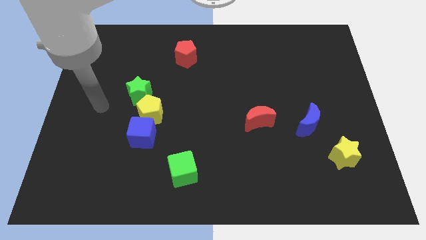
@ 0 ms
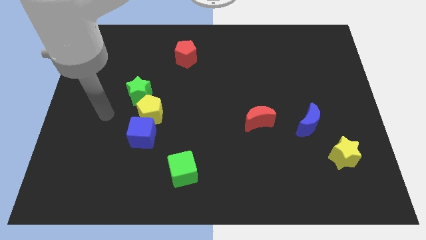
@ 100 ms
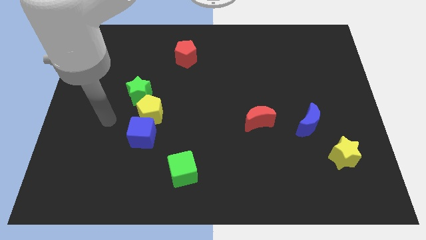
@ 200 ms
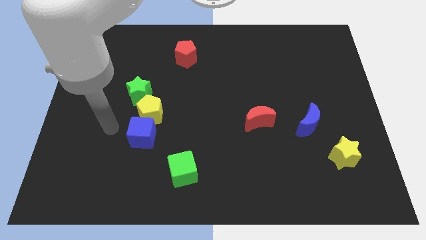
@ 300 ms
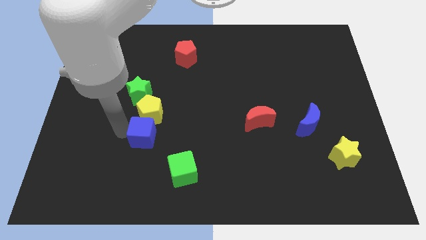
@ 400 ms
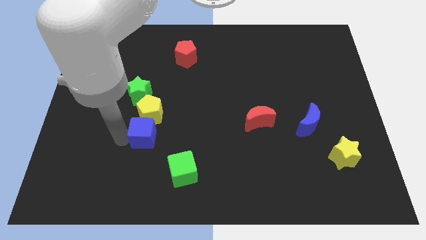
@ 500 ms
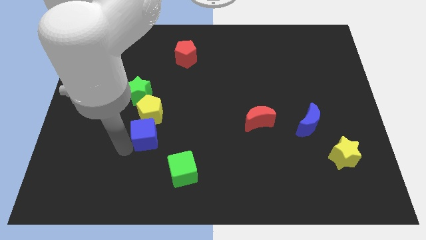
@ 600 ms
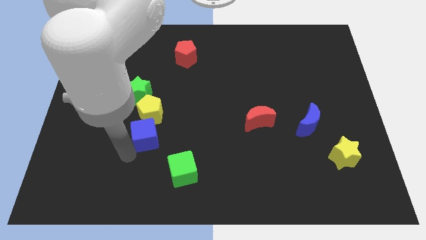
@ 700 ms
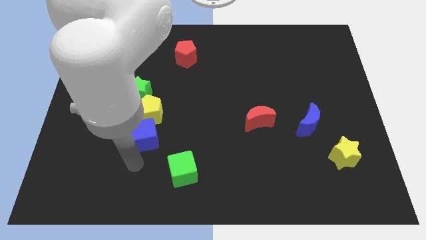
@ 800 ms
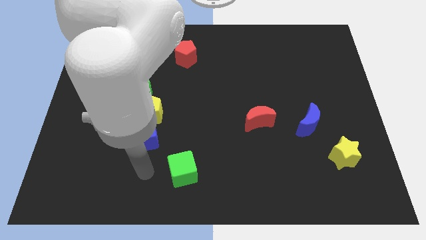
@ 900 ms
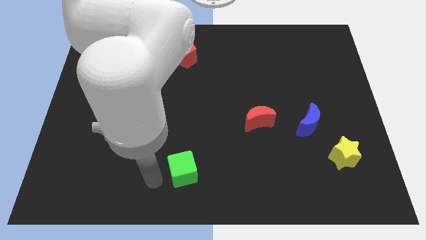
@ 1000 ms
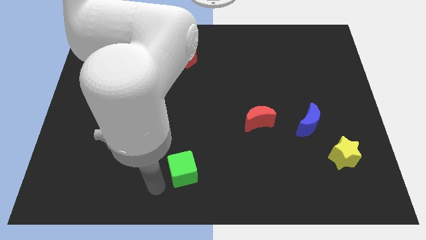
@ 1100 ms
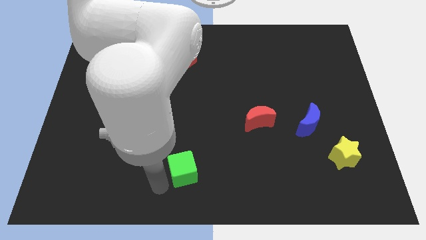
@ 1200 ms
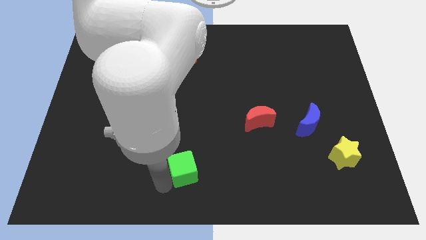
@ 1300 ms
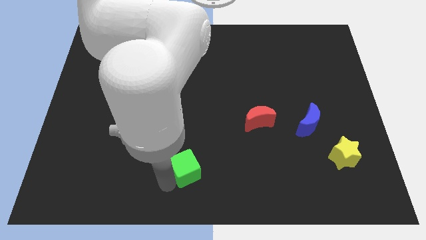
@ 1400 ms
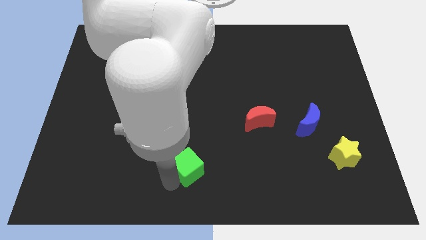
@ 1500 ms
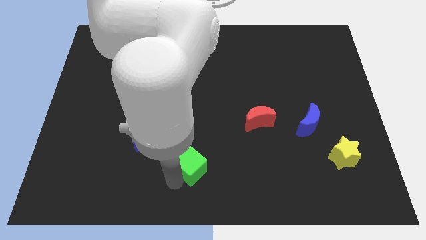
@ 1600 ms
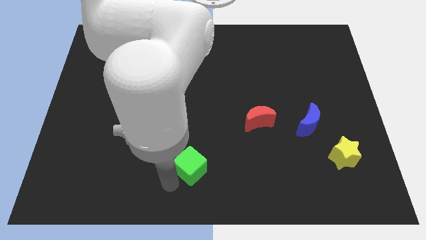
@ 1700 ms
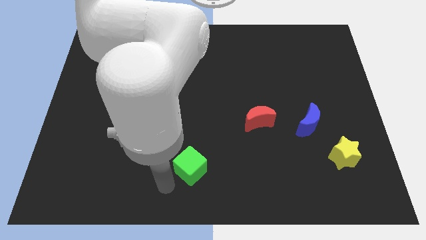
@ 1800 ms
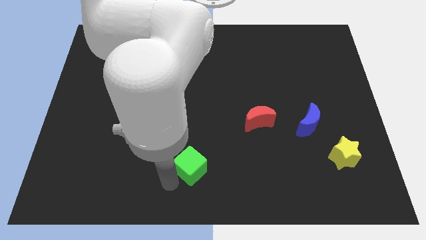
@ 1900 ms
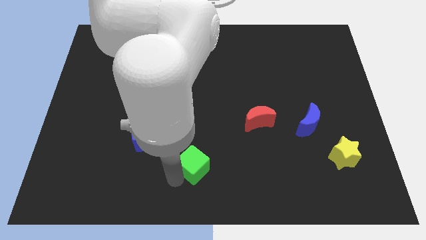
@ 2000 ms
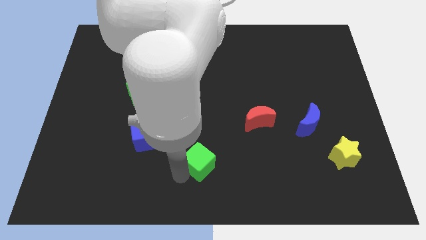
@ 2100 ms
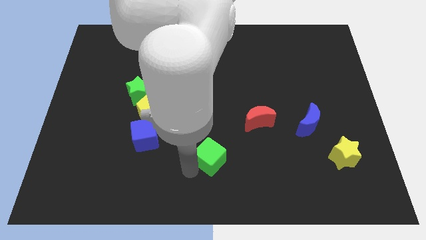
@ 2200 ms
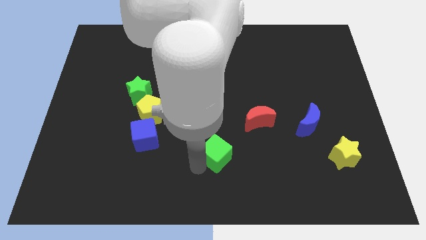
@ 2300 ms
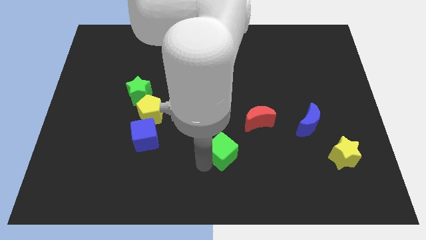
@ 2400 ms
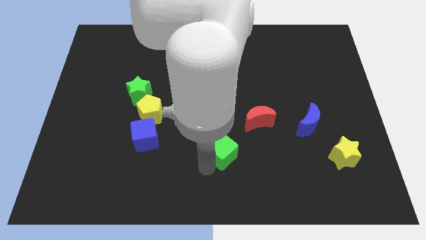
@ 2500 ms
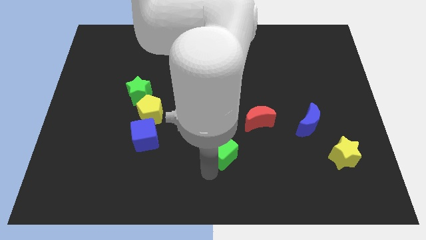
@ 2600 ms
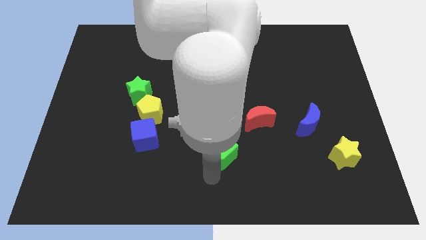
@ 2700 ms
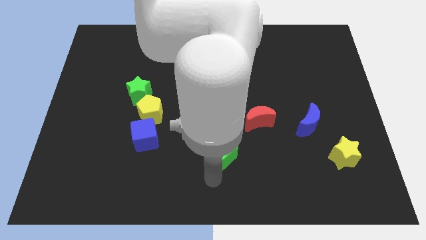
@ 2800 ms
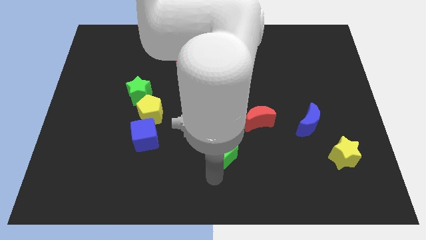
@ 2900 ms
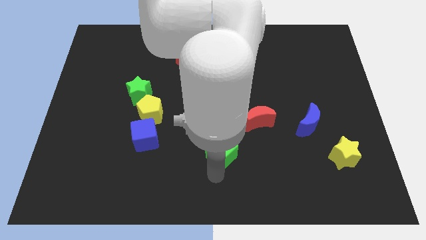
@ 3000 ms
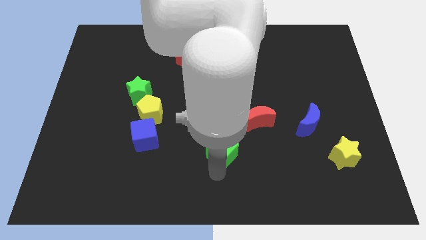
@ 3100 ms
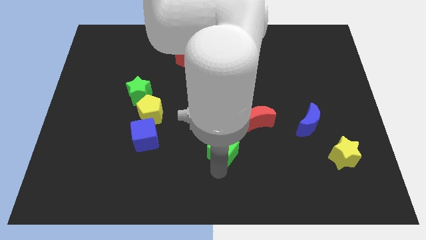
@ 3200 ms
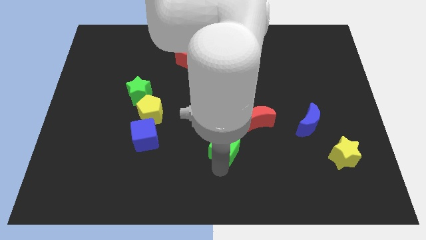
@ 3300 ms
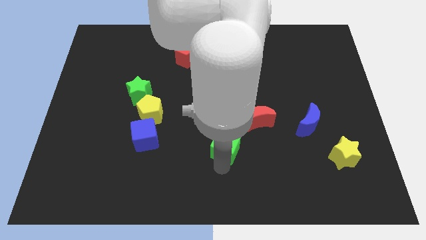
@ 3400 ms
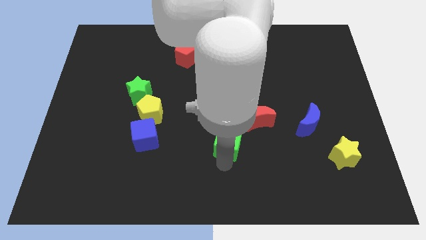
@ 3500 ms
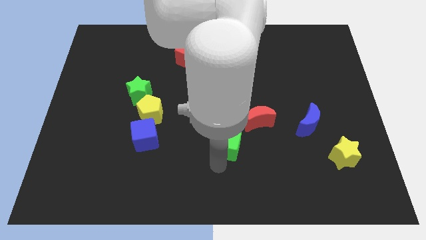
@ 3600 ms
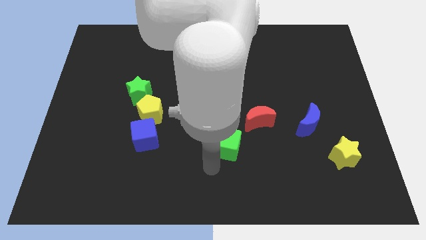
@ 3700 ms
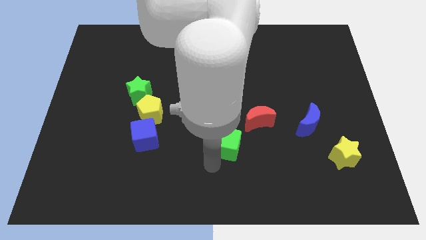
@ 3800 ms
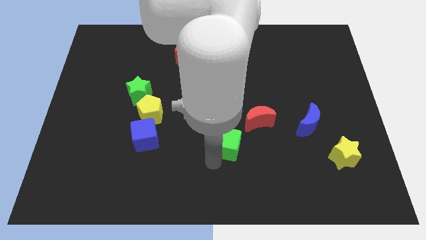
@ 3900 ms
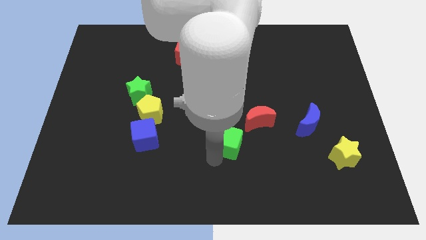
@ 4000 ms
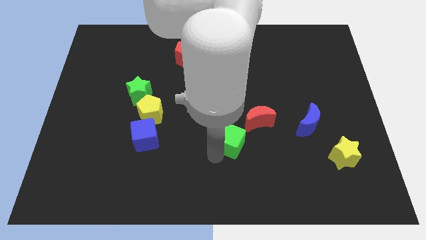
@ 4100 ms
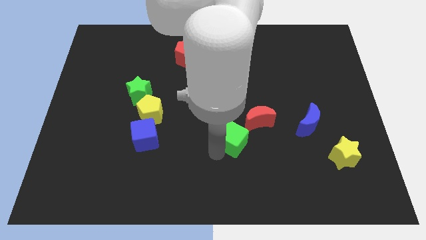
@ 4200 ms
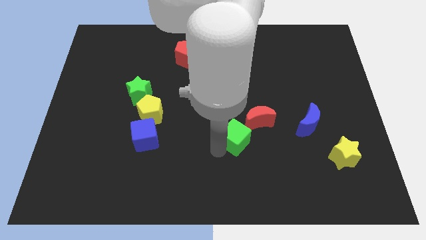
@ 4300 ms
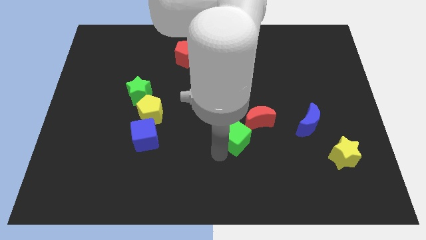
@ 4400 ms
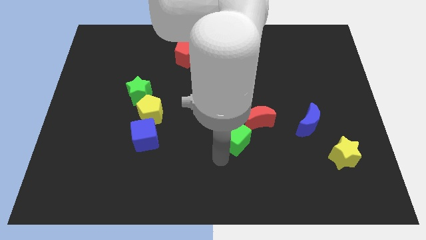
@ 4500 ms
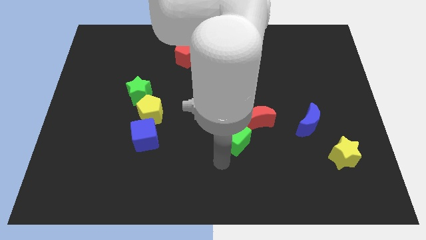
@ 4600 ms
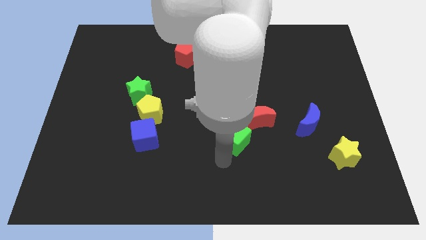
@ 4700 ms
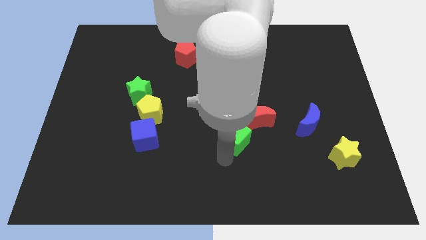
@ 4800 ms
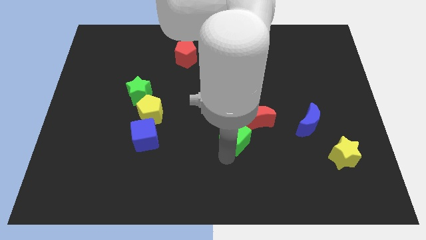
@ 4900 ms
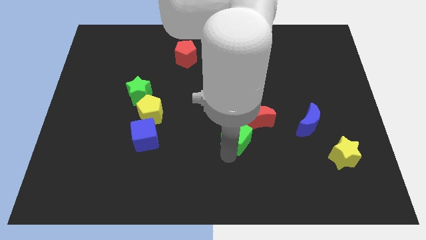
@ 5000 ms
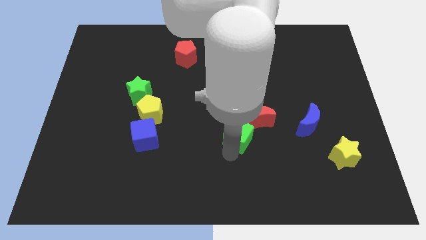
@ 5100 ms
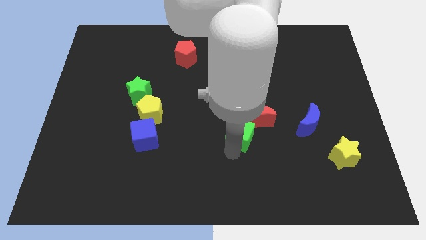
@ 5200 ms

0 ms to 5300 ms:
slide the green cube close to the red moon

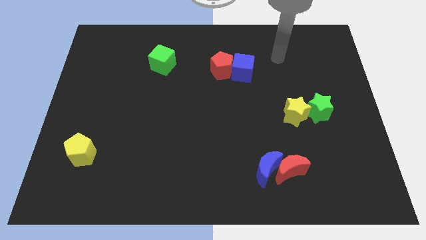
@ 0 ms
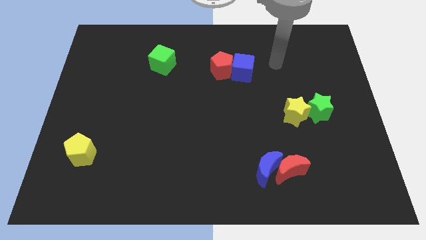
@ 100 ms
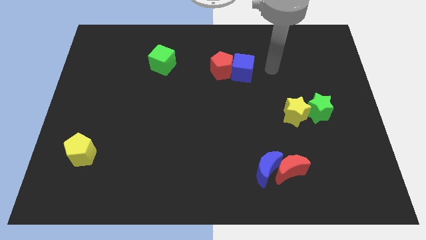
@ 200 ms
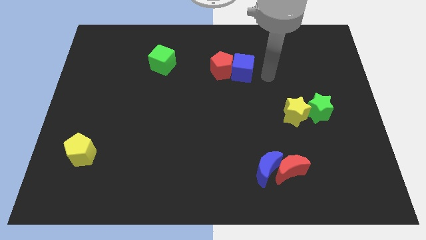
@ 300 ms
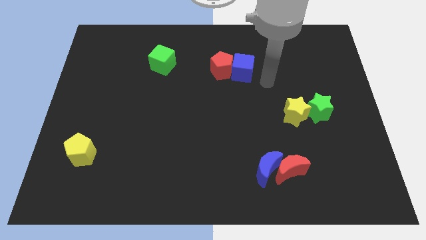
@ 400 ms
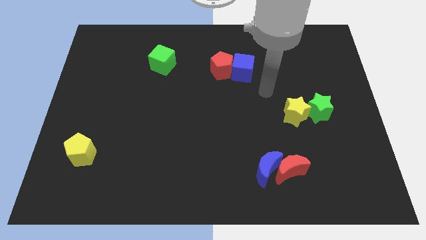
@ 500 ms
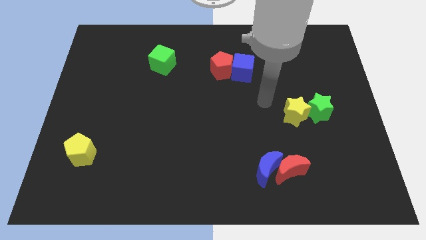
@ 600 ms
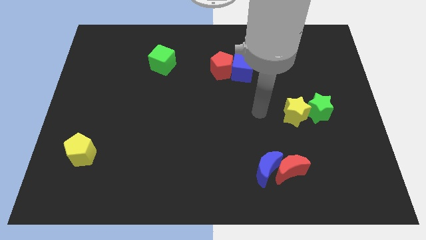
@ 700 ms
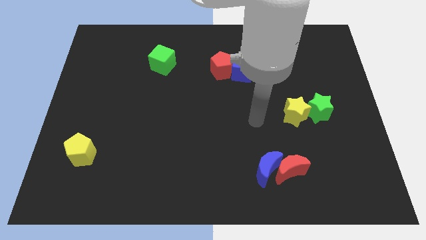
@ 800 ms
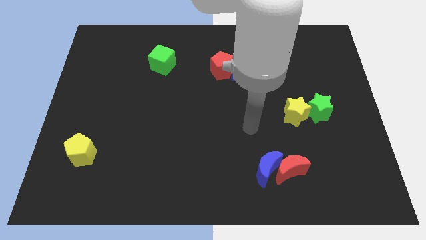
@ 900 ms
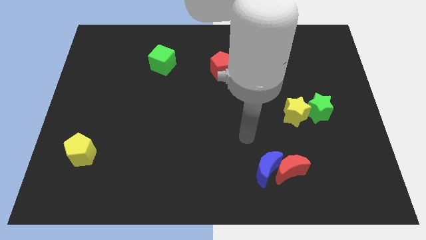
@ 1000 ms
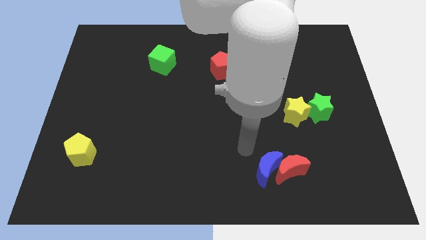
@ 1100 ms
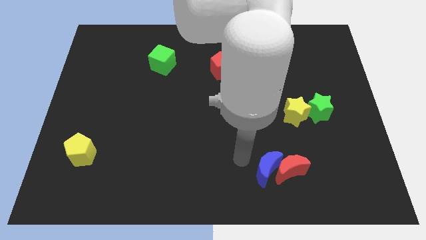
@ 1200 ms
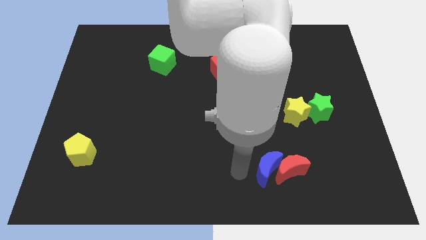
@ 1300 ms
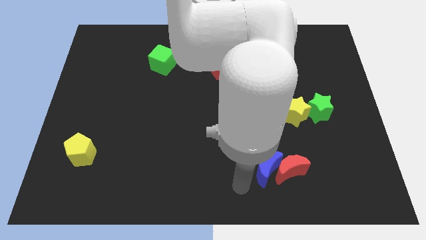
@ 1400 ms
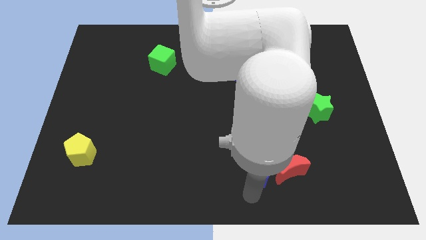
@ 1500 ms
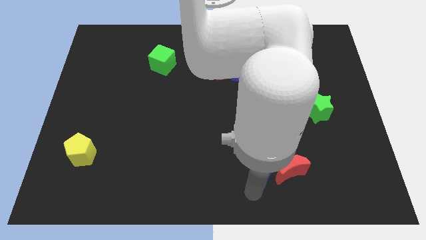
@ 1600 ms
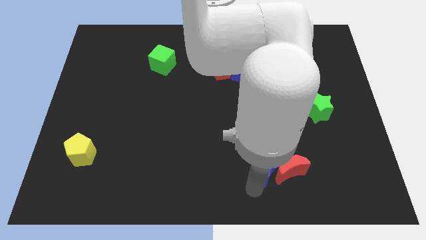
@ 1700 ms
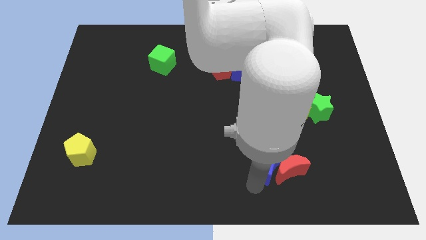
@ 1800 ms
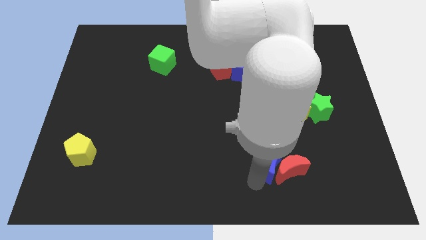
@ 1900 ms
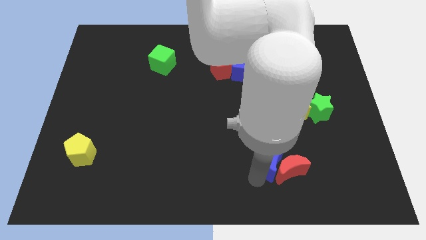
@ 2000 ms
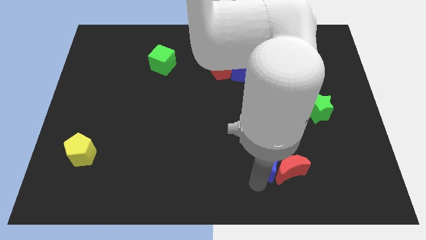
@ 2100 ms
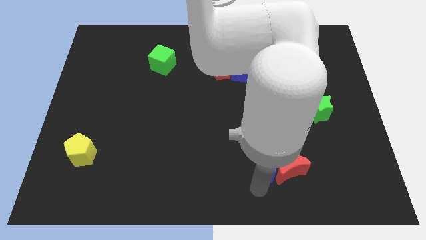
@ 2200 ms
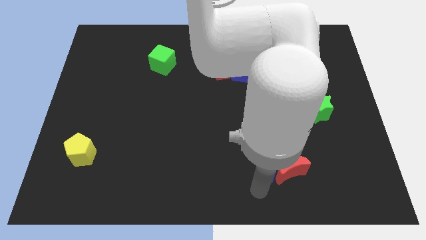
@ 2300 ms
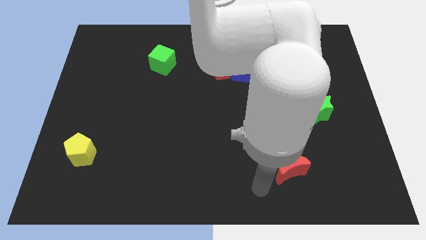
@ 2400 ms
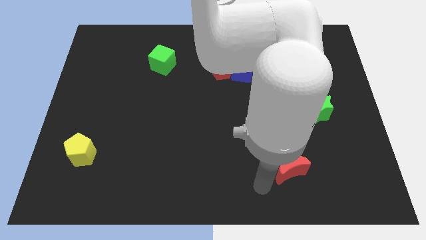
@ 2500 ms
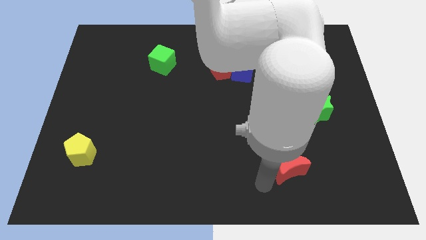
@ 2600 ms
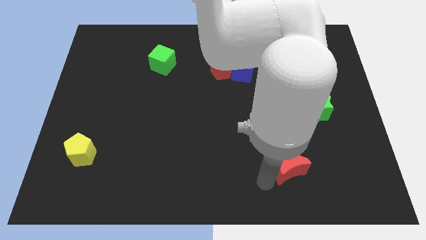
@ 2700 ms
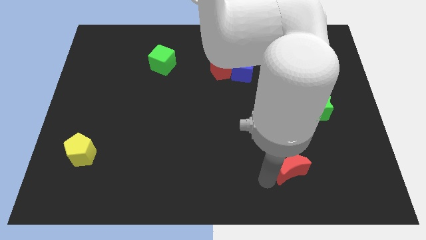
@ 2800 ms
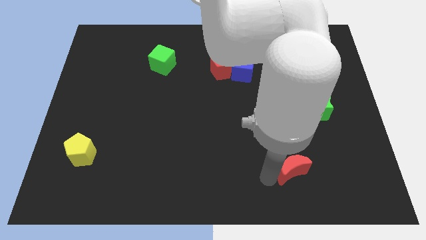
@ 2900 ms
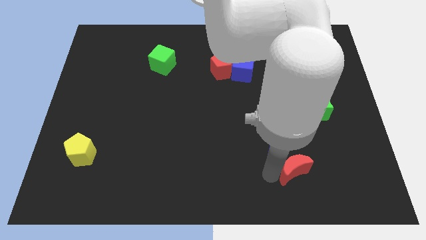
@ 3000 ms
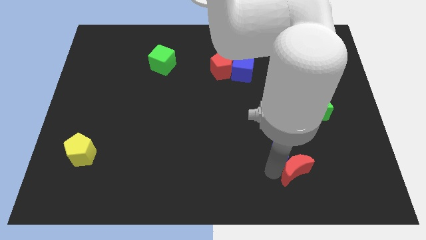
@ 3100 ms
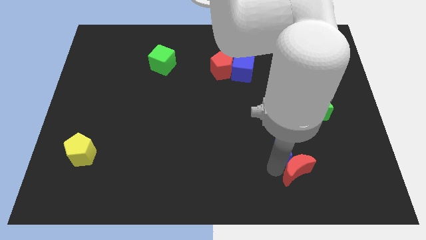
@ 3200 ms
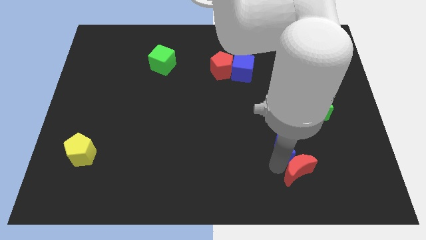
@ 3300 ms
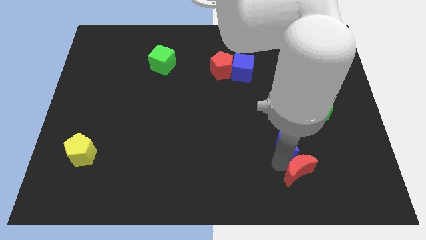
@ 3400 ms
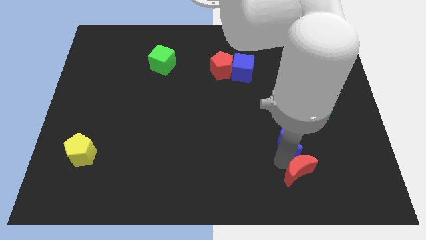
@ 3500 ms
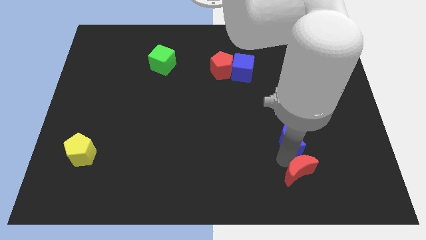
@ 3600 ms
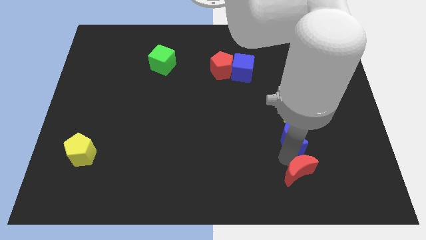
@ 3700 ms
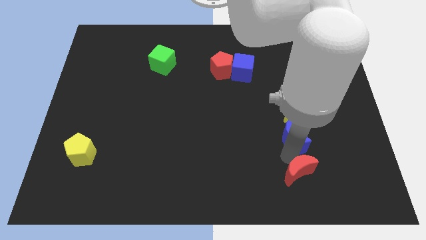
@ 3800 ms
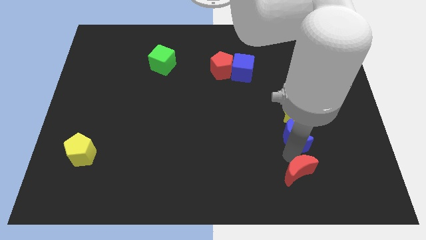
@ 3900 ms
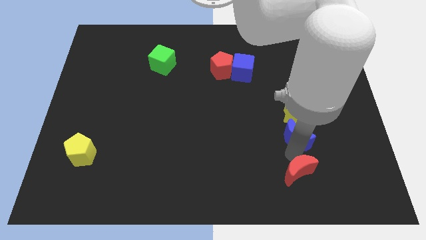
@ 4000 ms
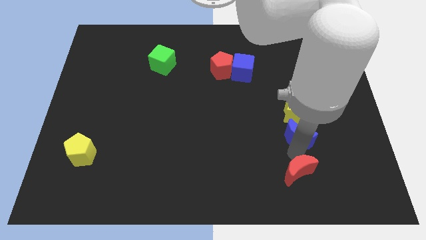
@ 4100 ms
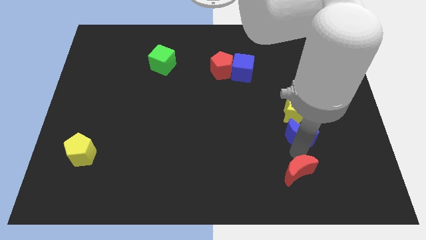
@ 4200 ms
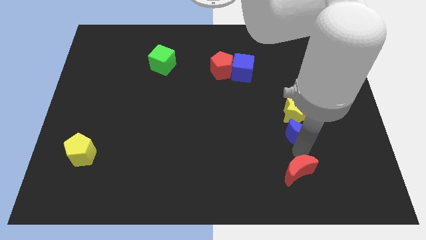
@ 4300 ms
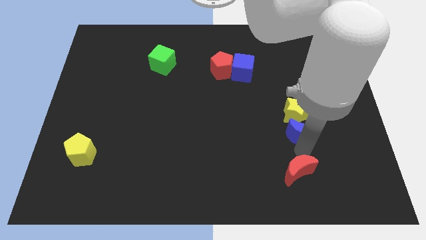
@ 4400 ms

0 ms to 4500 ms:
push the blue moon towards the yellow star
